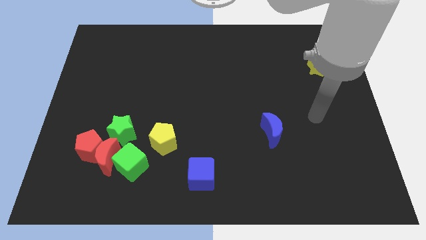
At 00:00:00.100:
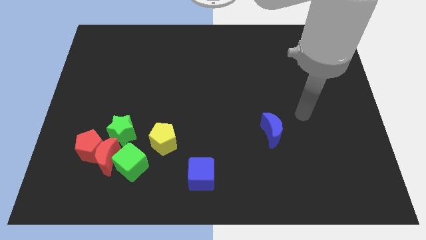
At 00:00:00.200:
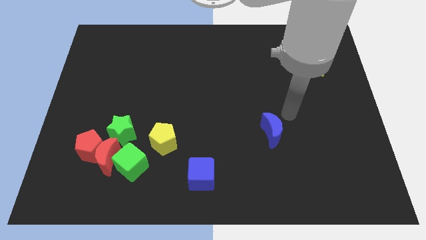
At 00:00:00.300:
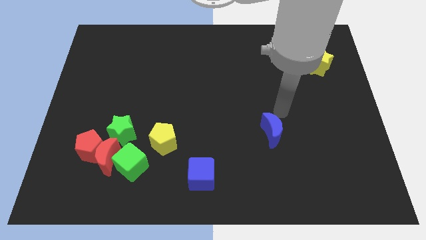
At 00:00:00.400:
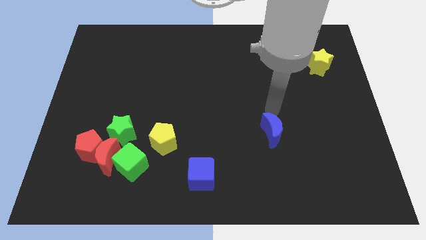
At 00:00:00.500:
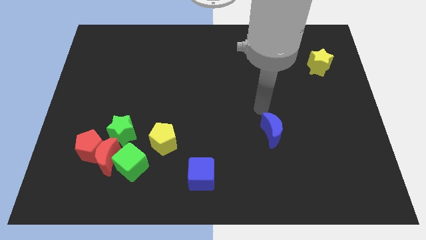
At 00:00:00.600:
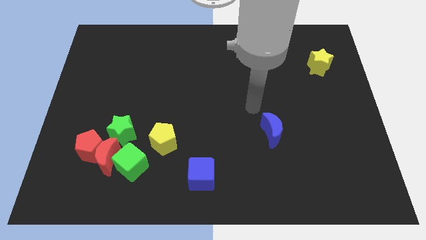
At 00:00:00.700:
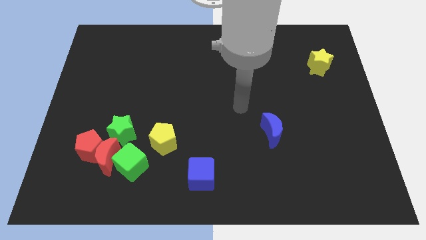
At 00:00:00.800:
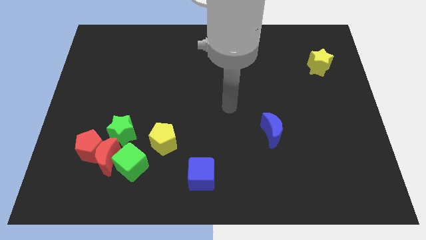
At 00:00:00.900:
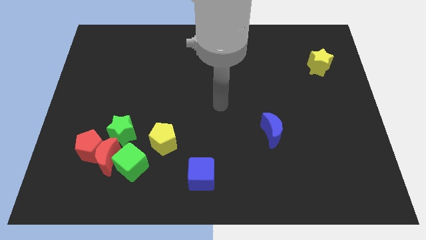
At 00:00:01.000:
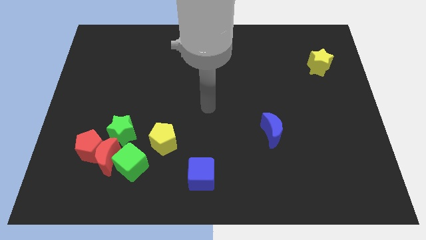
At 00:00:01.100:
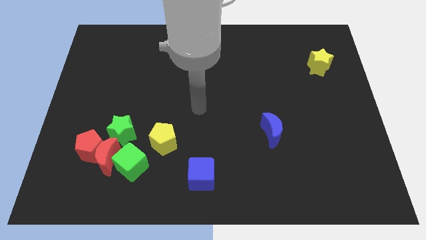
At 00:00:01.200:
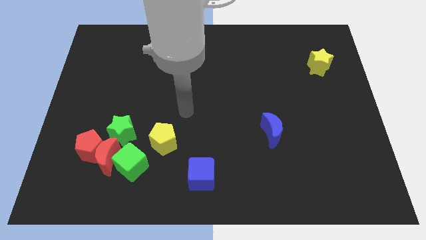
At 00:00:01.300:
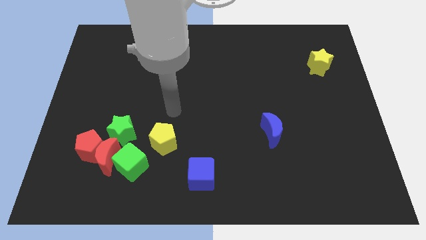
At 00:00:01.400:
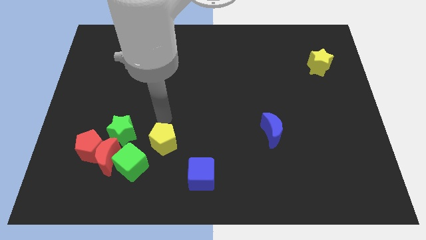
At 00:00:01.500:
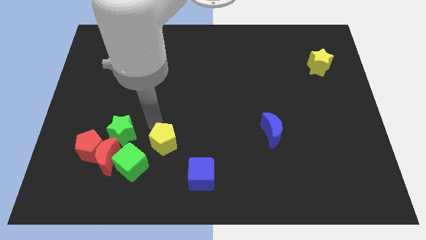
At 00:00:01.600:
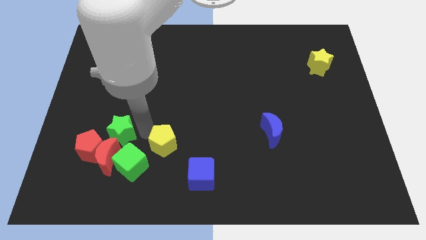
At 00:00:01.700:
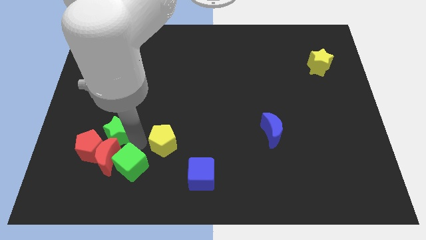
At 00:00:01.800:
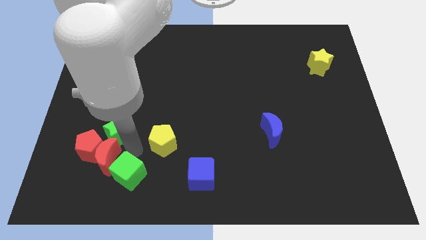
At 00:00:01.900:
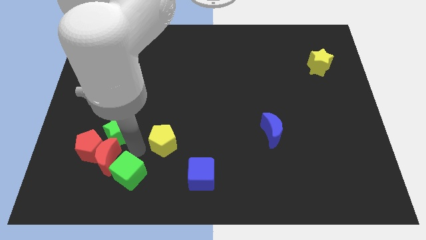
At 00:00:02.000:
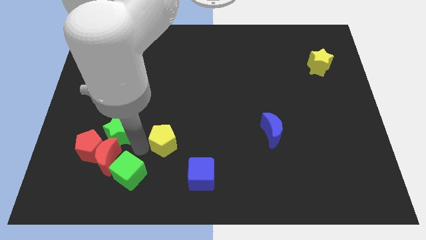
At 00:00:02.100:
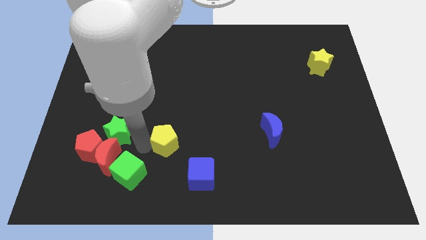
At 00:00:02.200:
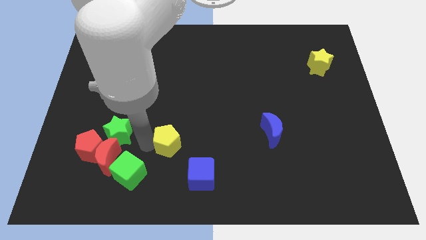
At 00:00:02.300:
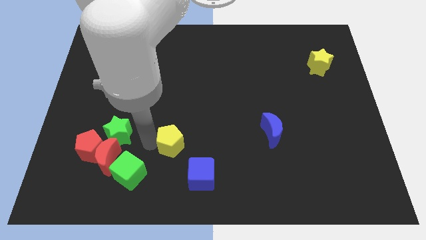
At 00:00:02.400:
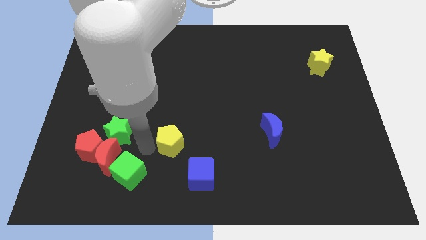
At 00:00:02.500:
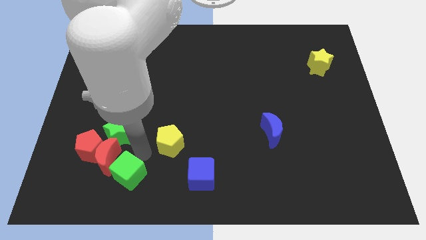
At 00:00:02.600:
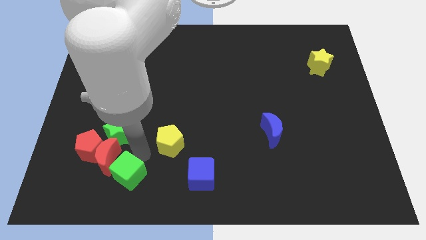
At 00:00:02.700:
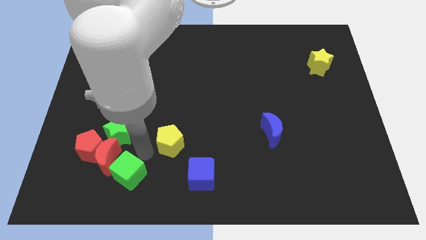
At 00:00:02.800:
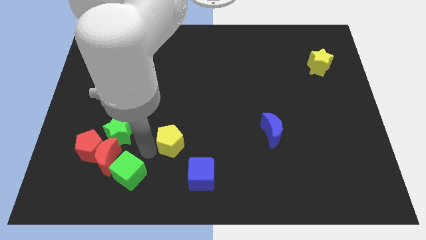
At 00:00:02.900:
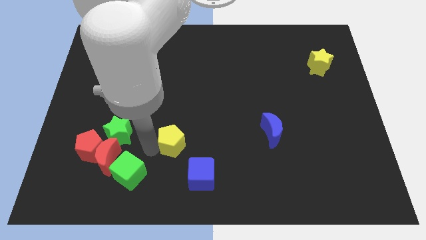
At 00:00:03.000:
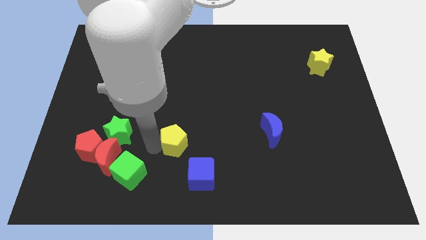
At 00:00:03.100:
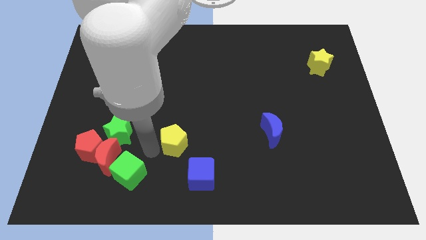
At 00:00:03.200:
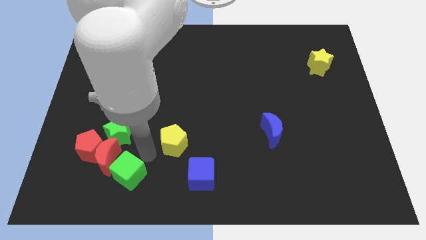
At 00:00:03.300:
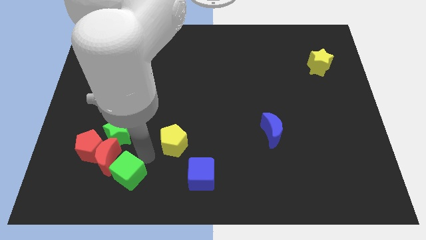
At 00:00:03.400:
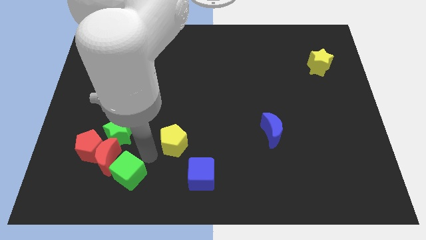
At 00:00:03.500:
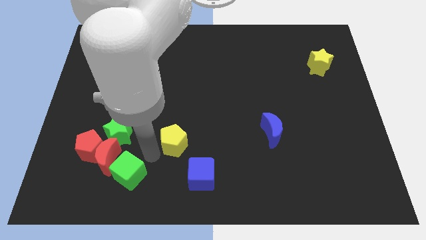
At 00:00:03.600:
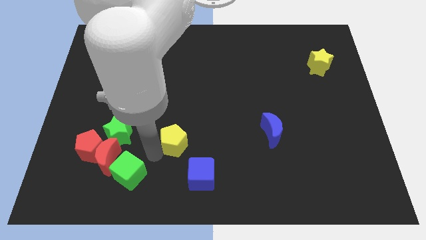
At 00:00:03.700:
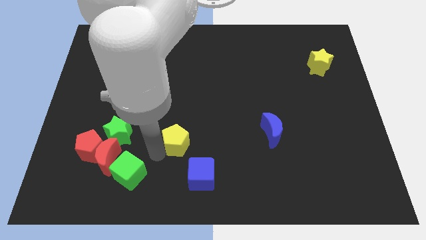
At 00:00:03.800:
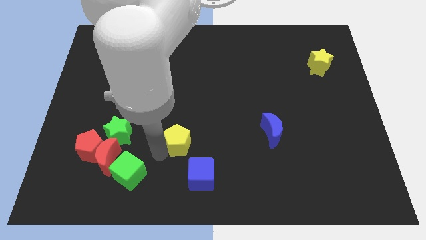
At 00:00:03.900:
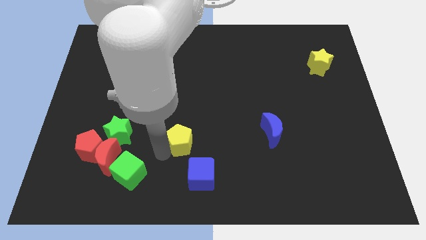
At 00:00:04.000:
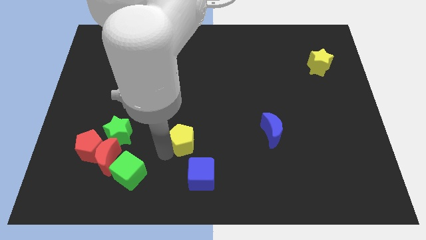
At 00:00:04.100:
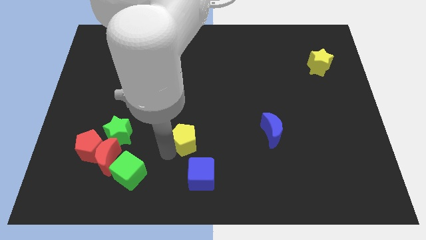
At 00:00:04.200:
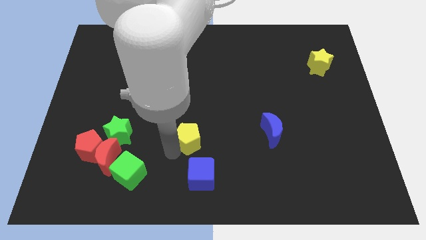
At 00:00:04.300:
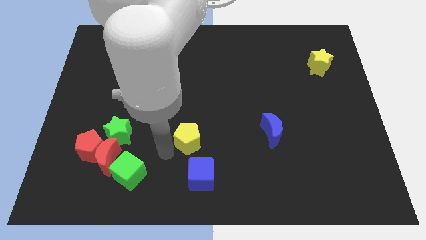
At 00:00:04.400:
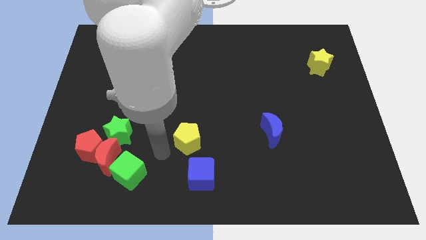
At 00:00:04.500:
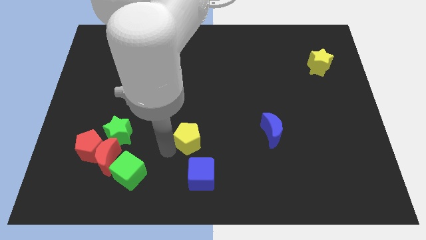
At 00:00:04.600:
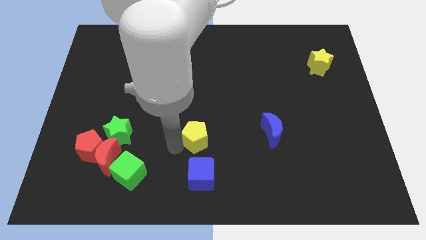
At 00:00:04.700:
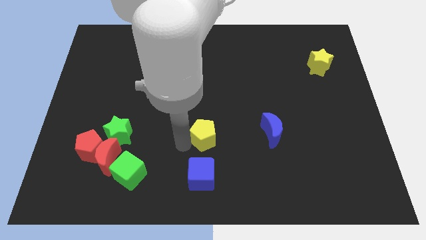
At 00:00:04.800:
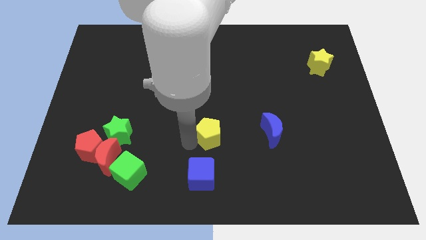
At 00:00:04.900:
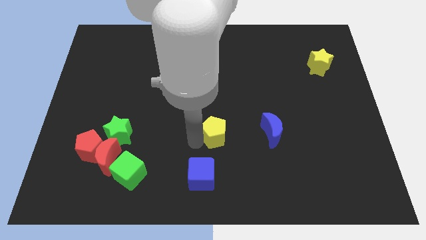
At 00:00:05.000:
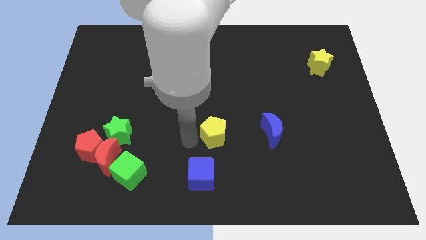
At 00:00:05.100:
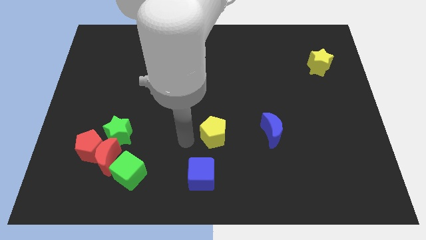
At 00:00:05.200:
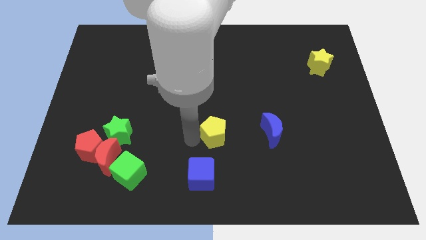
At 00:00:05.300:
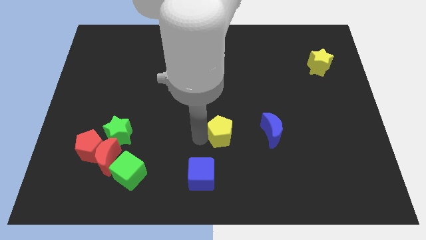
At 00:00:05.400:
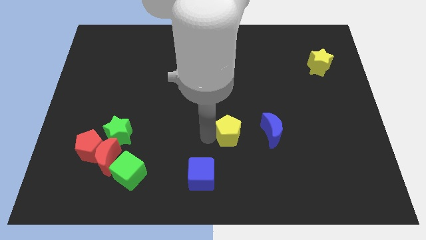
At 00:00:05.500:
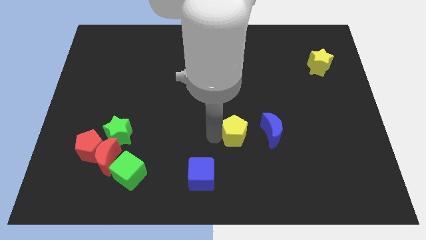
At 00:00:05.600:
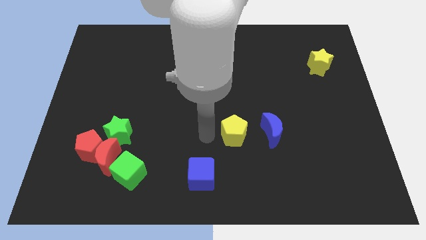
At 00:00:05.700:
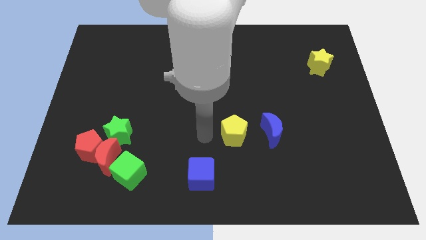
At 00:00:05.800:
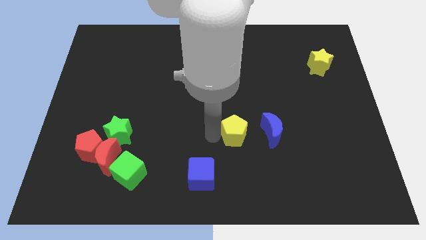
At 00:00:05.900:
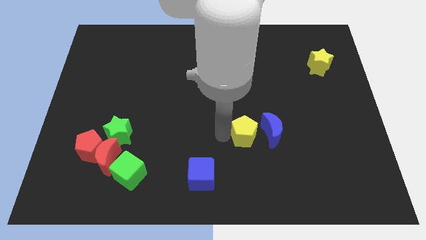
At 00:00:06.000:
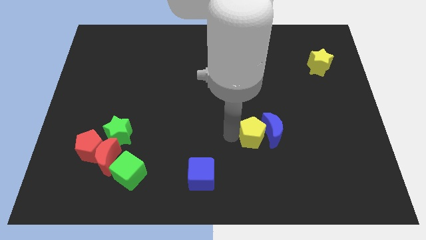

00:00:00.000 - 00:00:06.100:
slide the yellow pentagon to the blue moon

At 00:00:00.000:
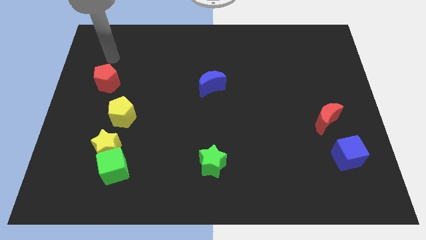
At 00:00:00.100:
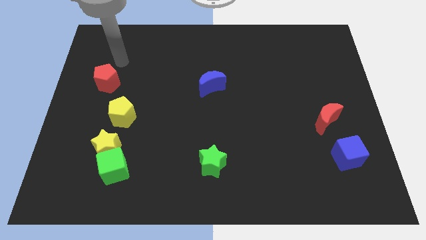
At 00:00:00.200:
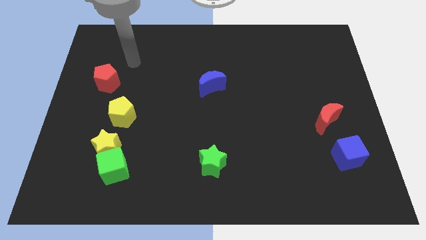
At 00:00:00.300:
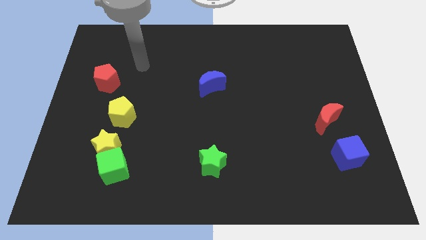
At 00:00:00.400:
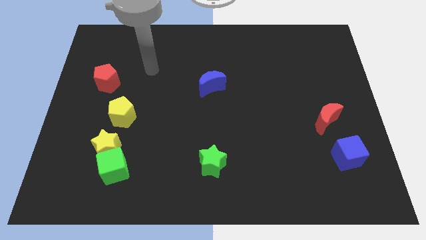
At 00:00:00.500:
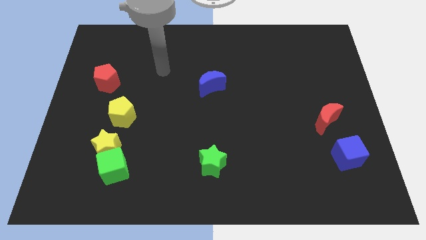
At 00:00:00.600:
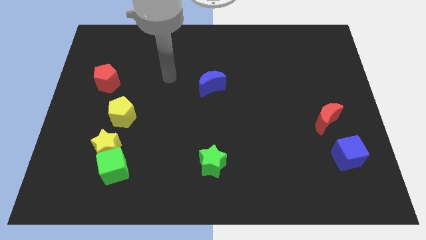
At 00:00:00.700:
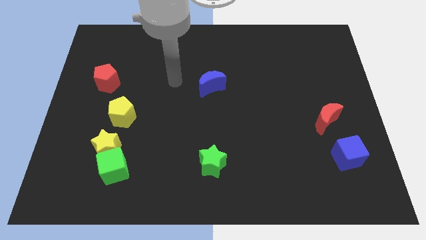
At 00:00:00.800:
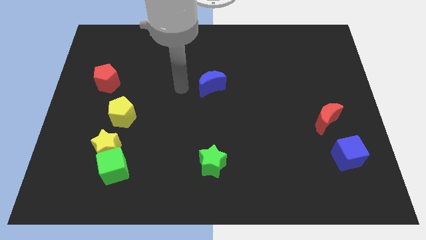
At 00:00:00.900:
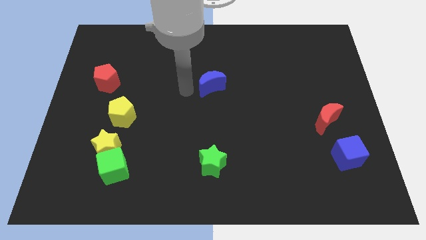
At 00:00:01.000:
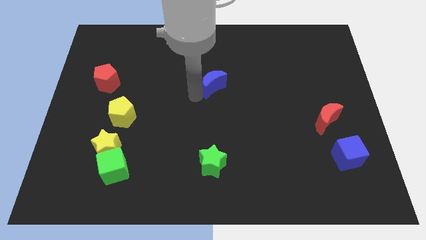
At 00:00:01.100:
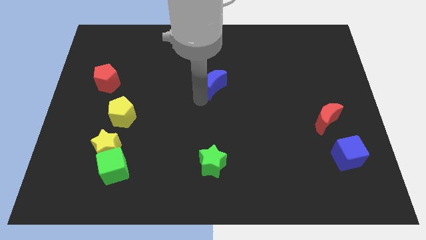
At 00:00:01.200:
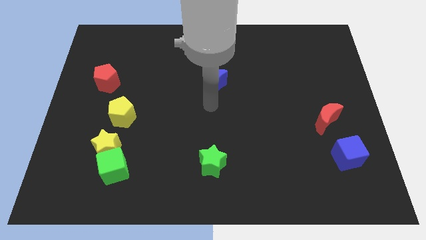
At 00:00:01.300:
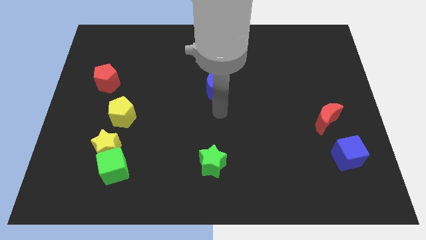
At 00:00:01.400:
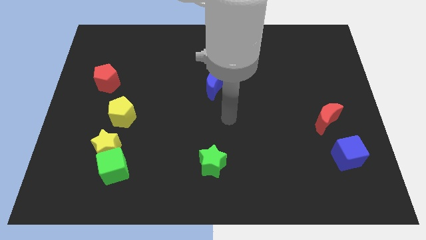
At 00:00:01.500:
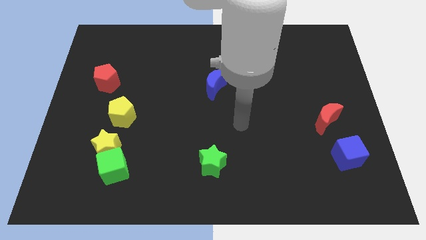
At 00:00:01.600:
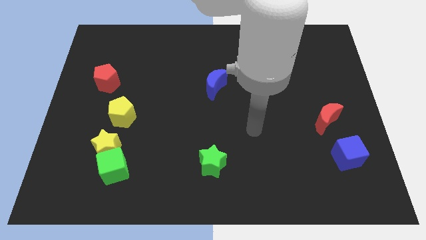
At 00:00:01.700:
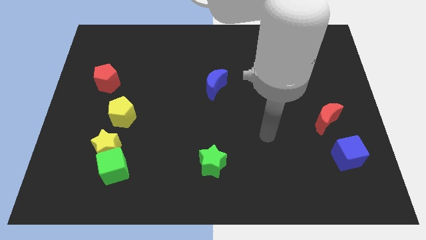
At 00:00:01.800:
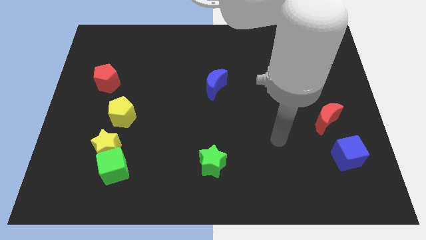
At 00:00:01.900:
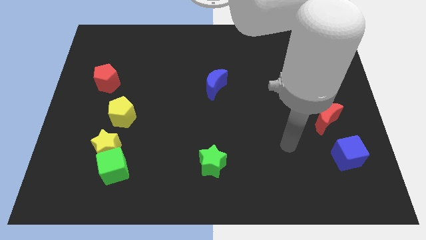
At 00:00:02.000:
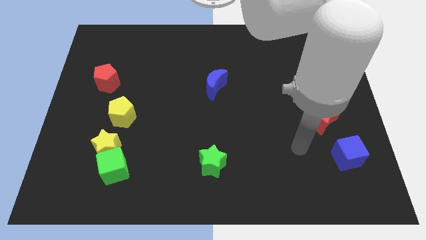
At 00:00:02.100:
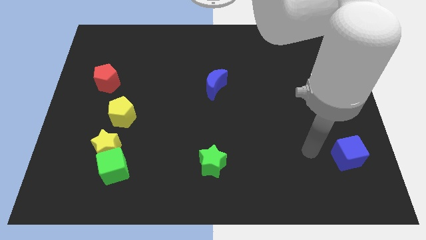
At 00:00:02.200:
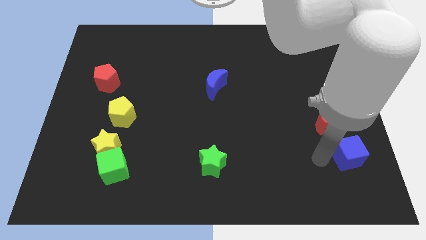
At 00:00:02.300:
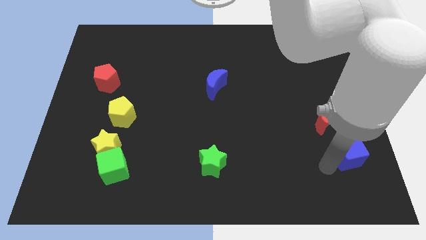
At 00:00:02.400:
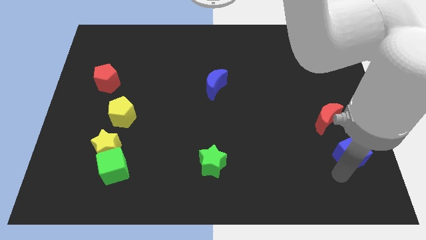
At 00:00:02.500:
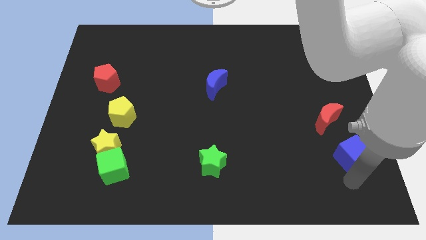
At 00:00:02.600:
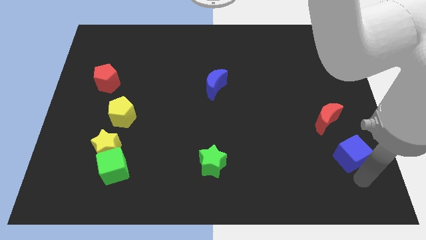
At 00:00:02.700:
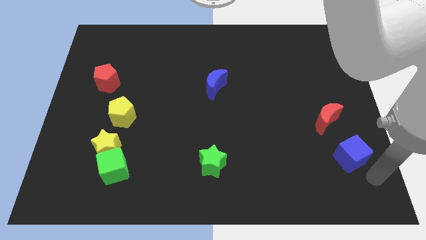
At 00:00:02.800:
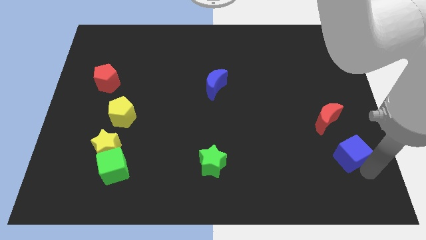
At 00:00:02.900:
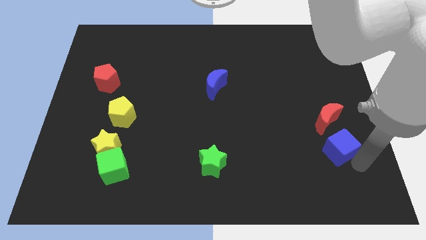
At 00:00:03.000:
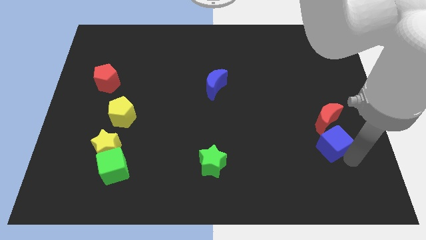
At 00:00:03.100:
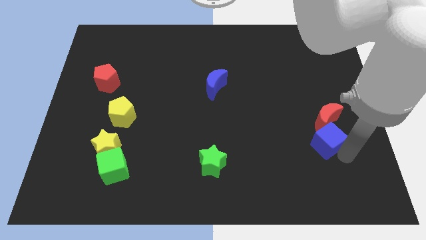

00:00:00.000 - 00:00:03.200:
put the blue cube next to the red moon
